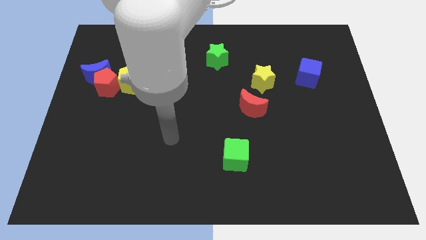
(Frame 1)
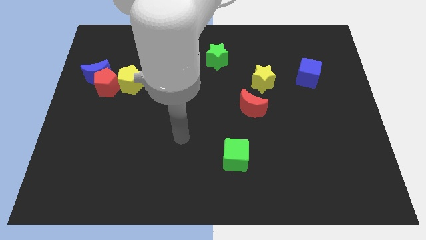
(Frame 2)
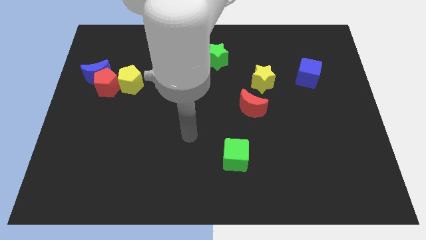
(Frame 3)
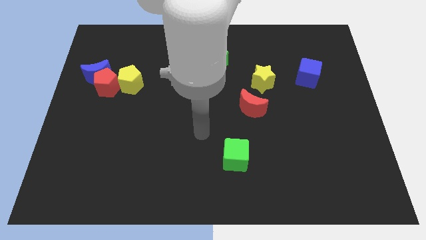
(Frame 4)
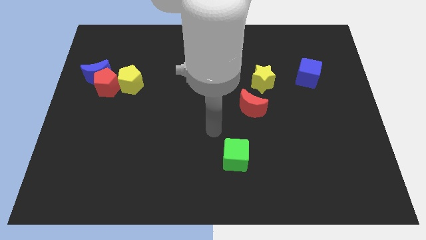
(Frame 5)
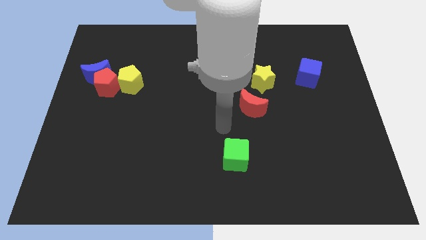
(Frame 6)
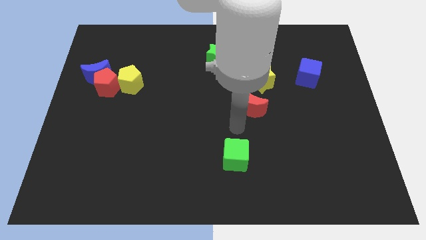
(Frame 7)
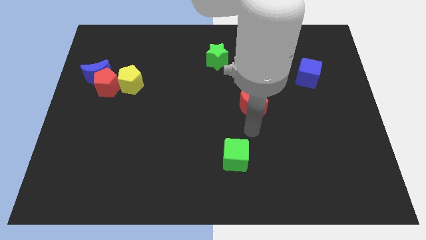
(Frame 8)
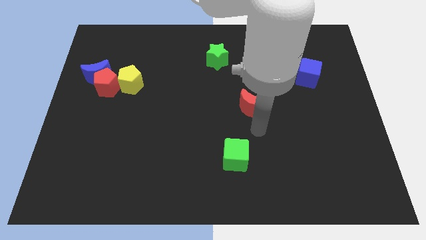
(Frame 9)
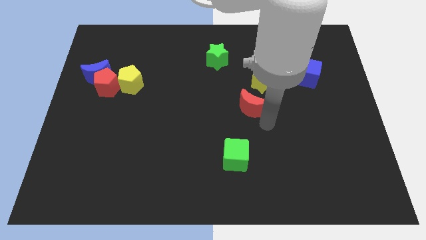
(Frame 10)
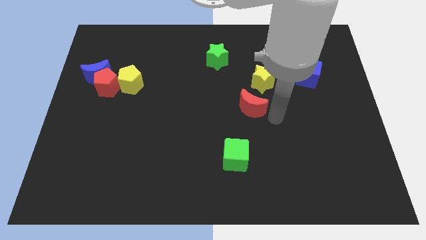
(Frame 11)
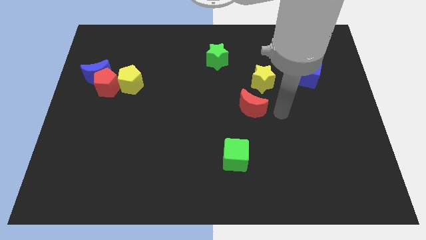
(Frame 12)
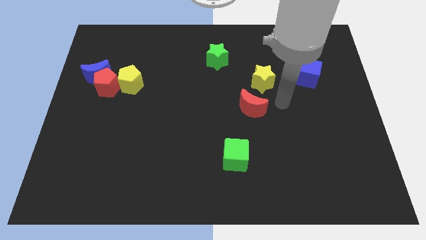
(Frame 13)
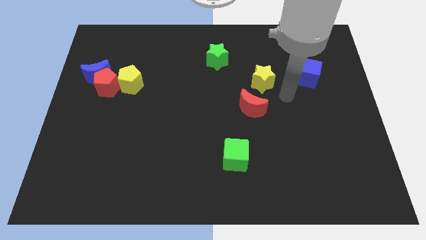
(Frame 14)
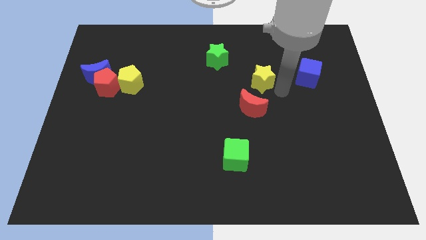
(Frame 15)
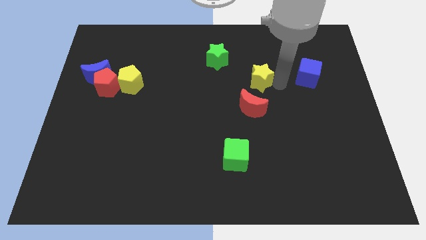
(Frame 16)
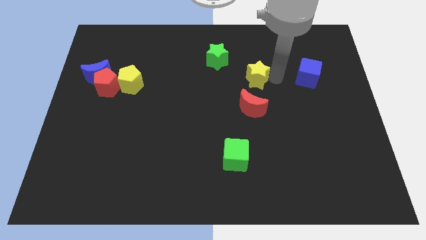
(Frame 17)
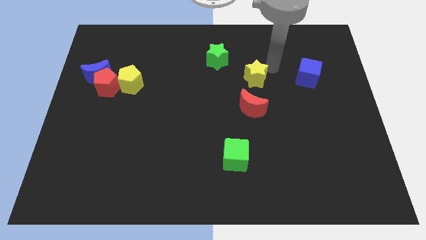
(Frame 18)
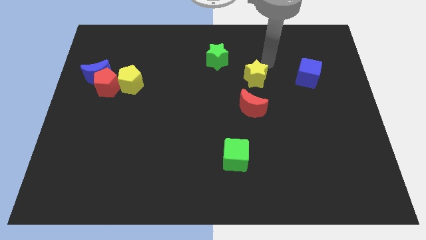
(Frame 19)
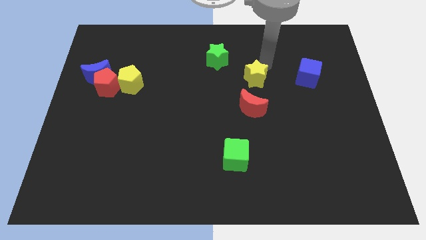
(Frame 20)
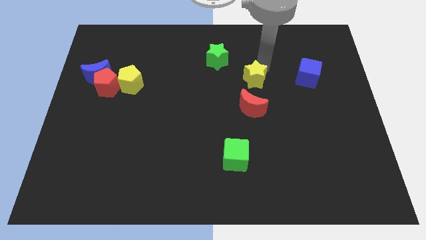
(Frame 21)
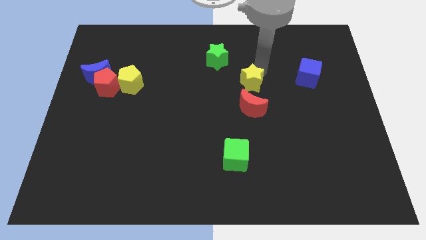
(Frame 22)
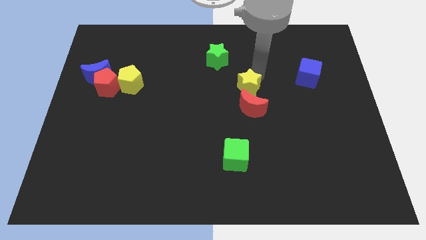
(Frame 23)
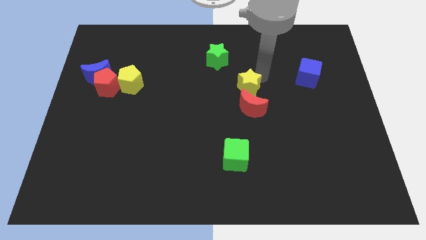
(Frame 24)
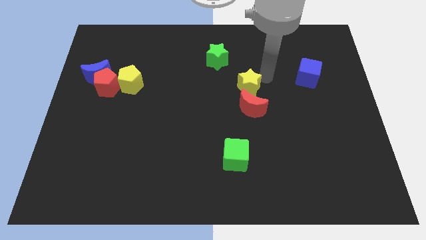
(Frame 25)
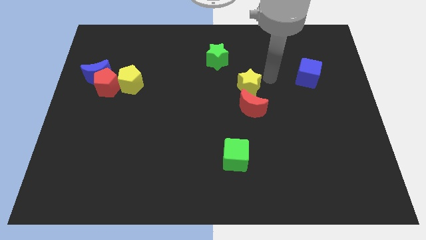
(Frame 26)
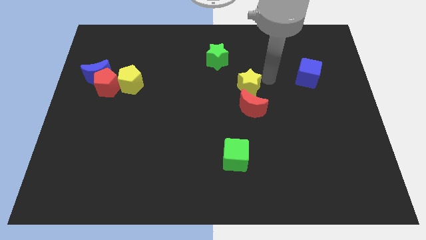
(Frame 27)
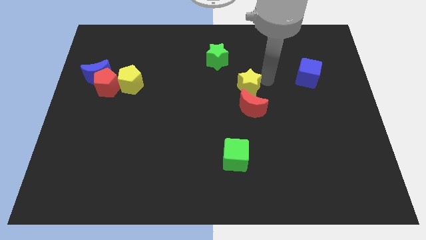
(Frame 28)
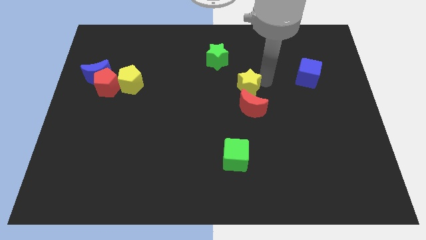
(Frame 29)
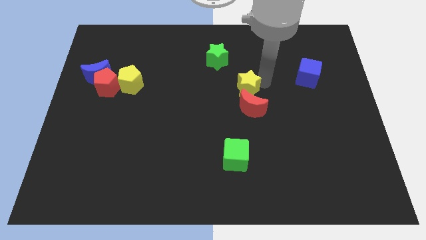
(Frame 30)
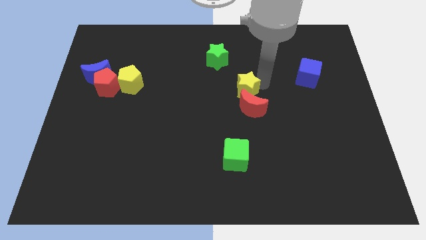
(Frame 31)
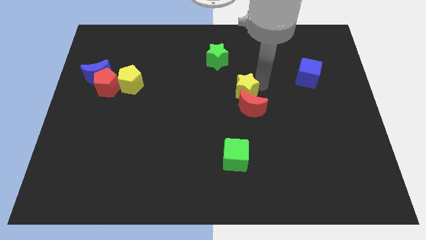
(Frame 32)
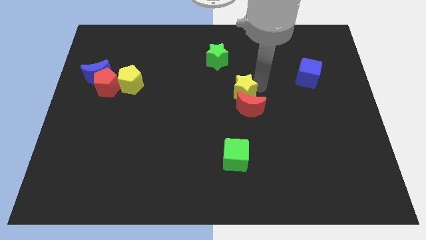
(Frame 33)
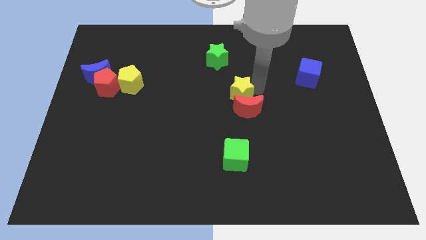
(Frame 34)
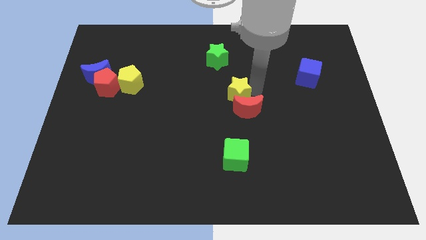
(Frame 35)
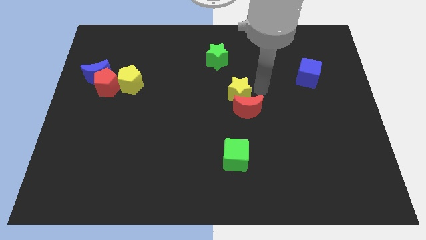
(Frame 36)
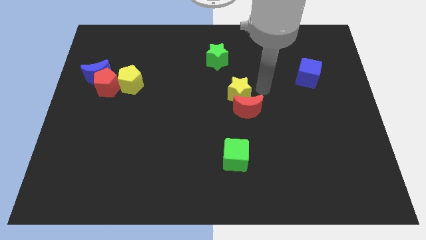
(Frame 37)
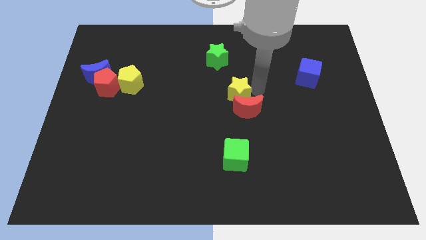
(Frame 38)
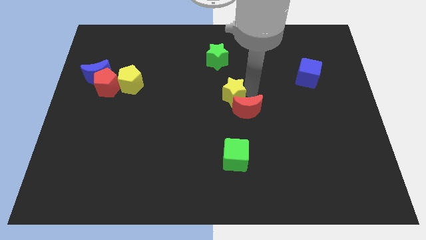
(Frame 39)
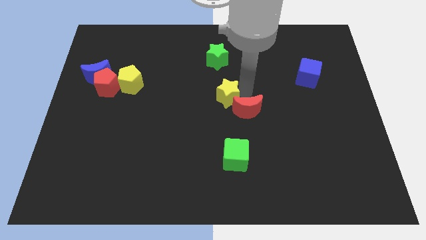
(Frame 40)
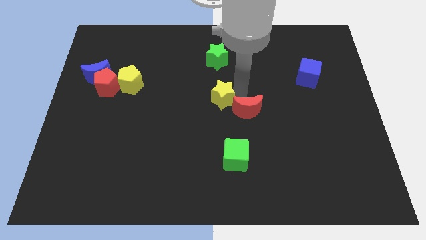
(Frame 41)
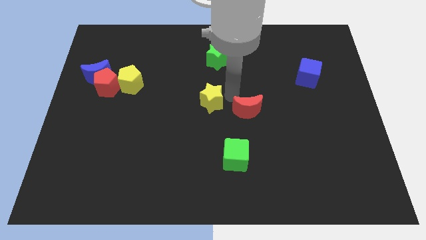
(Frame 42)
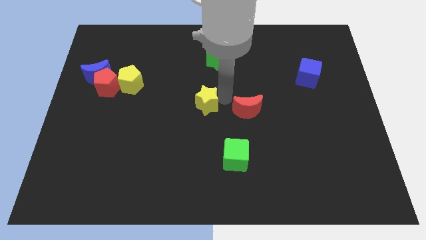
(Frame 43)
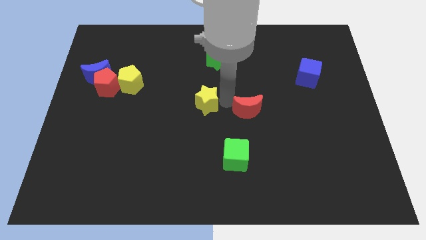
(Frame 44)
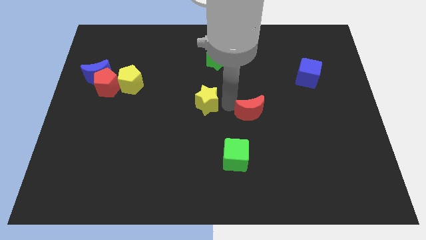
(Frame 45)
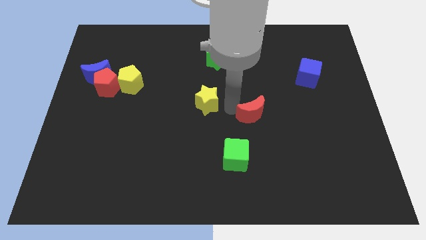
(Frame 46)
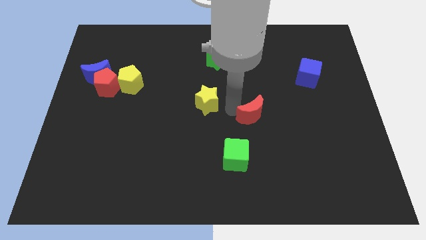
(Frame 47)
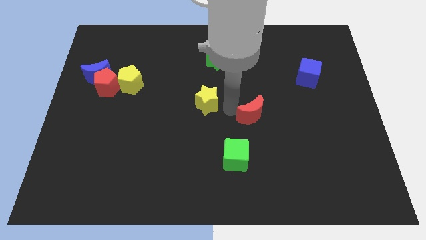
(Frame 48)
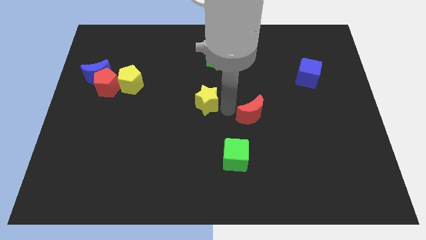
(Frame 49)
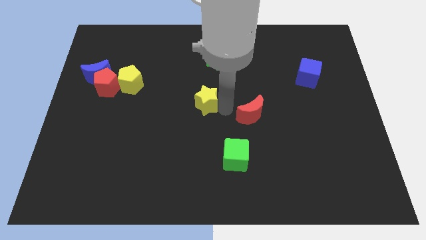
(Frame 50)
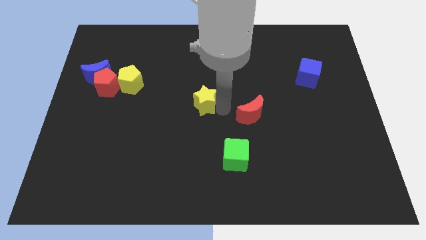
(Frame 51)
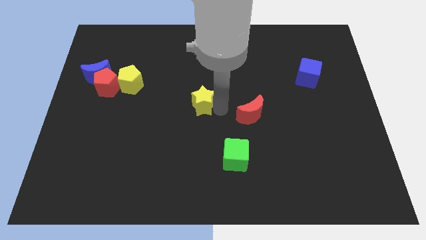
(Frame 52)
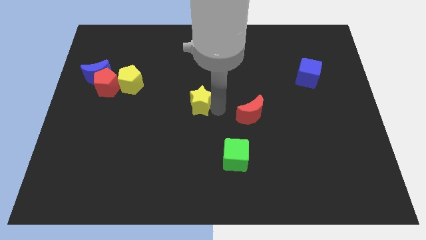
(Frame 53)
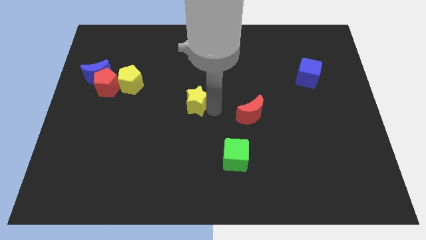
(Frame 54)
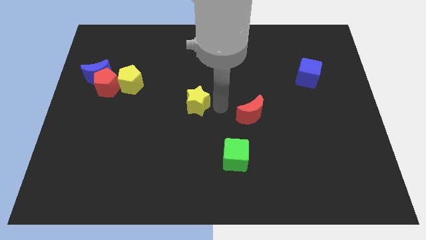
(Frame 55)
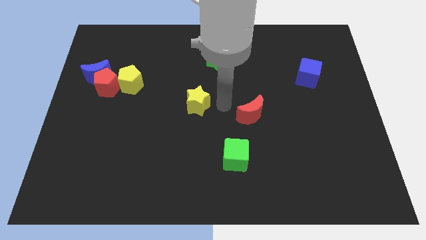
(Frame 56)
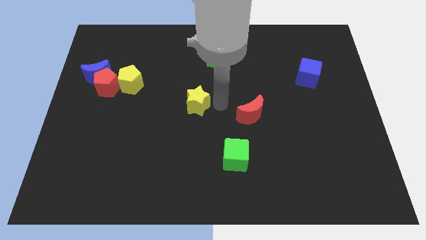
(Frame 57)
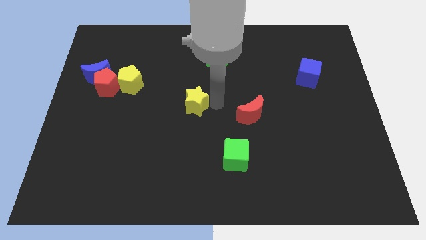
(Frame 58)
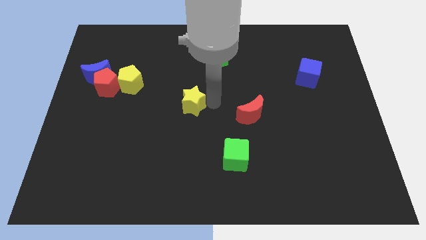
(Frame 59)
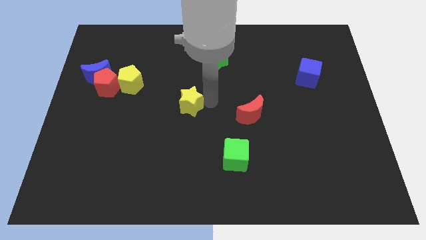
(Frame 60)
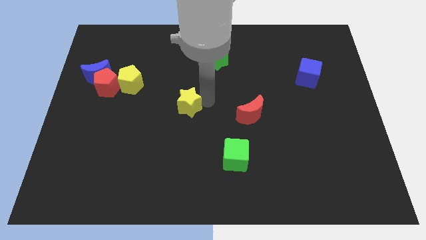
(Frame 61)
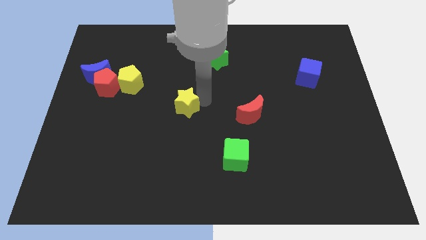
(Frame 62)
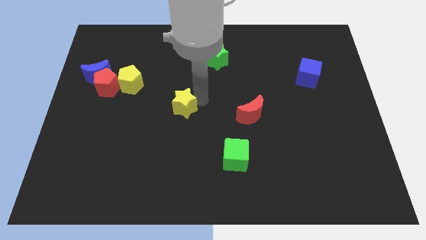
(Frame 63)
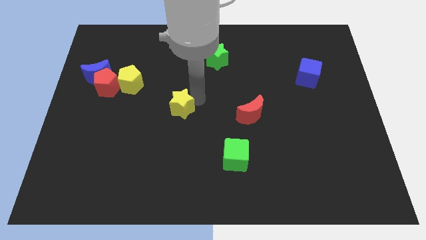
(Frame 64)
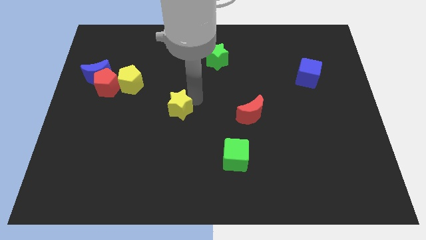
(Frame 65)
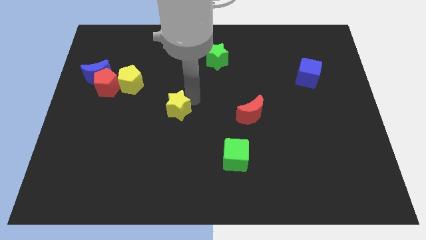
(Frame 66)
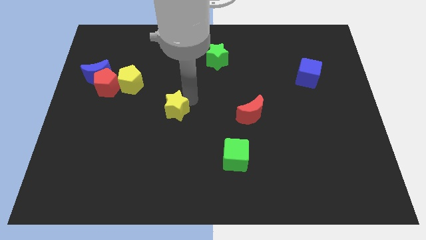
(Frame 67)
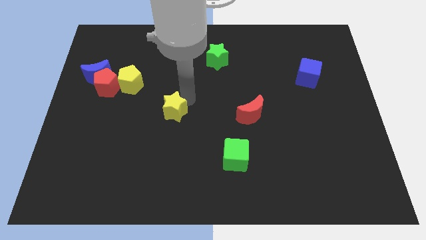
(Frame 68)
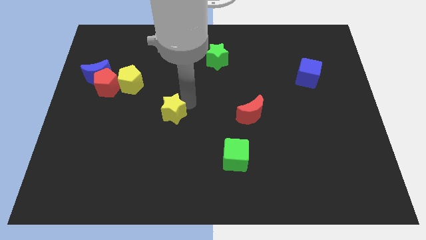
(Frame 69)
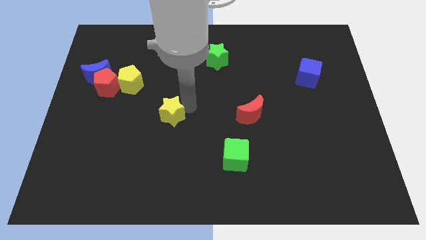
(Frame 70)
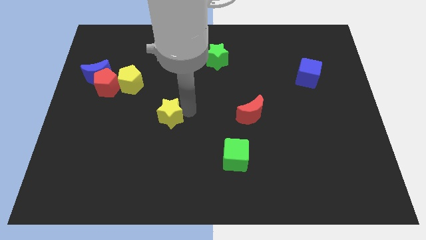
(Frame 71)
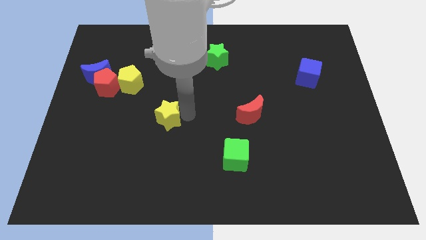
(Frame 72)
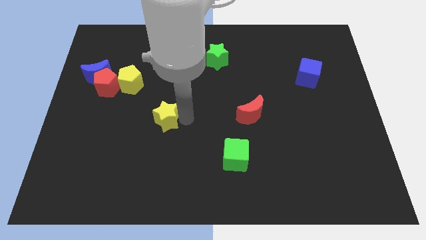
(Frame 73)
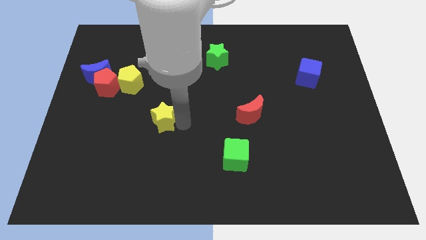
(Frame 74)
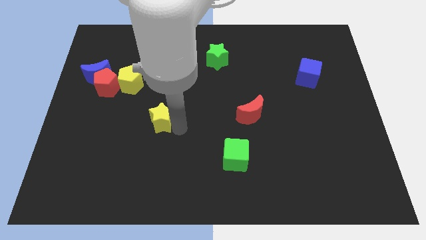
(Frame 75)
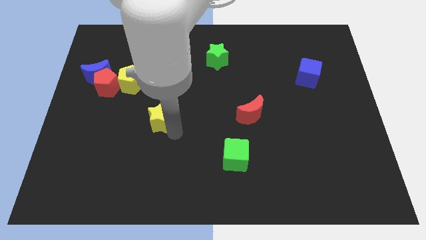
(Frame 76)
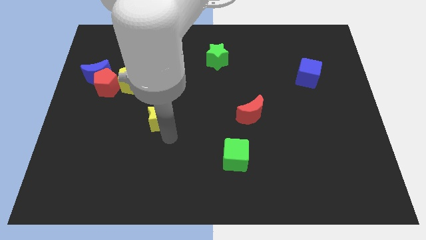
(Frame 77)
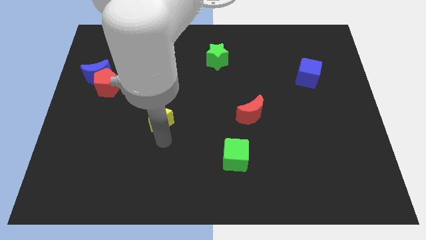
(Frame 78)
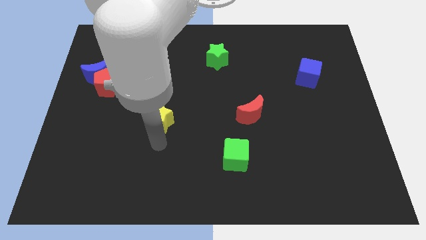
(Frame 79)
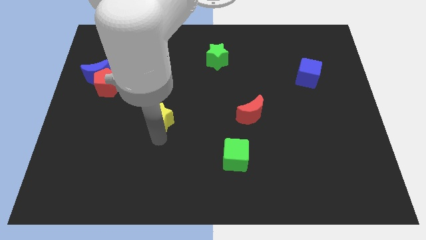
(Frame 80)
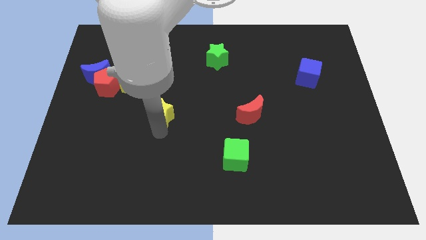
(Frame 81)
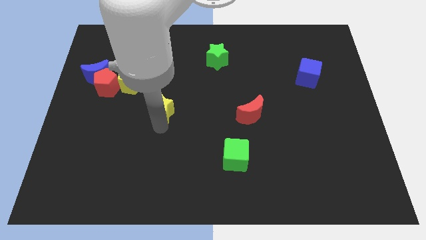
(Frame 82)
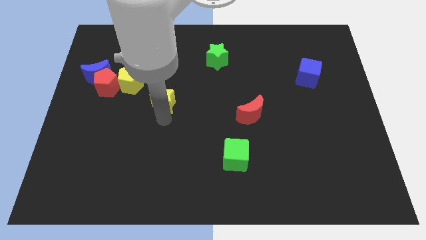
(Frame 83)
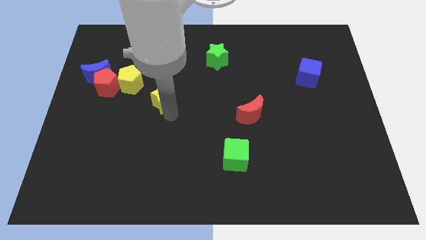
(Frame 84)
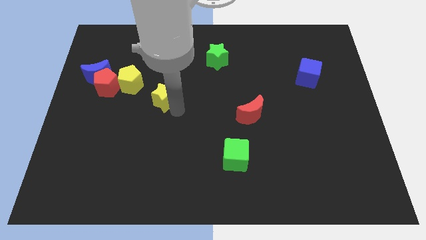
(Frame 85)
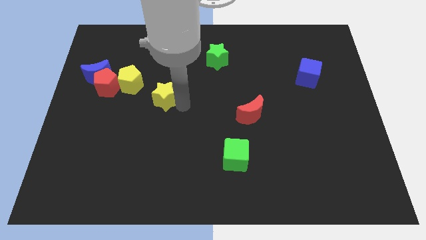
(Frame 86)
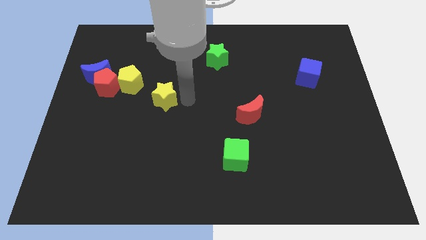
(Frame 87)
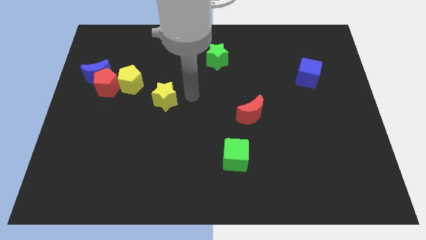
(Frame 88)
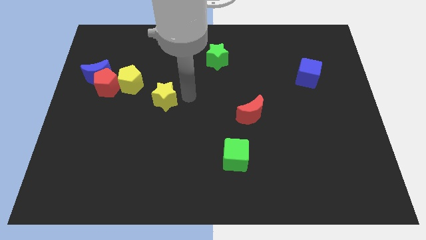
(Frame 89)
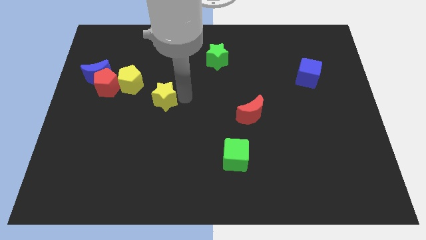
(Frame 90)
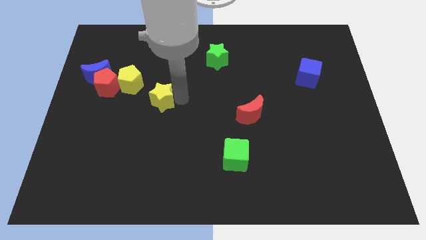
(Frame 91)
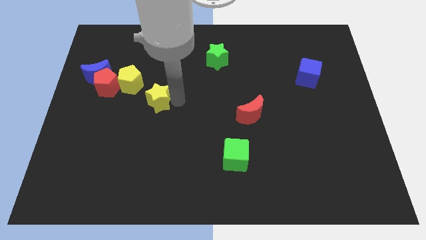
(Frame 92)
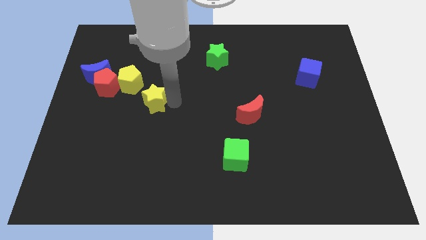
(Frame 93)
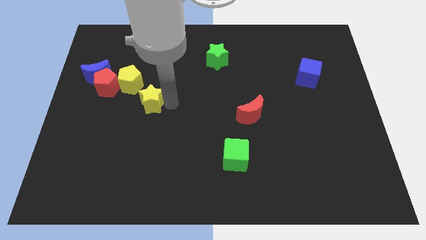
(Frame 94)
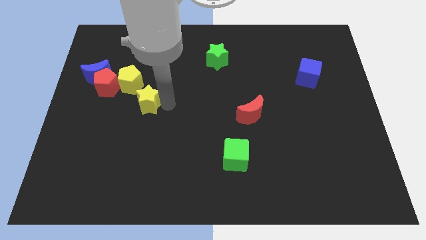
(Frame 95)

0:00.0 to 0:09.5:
push the yellow star diagonally down and to the right of the red pentagon
